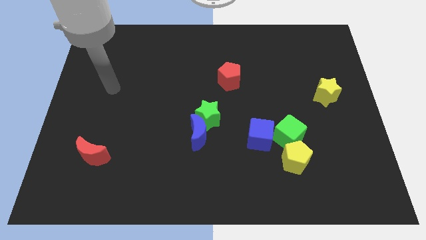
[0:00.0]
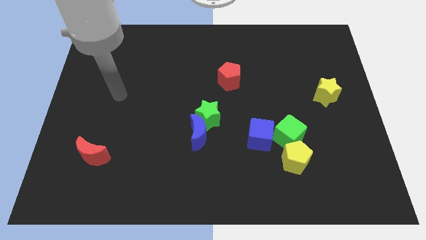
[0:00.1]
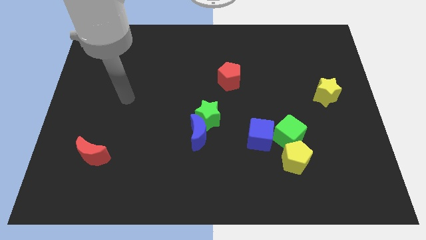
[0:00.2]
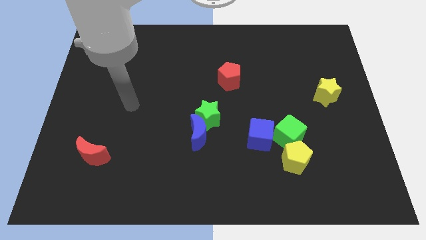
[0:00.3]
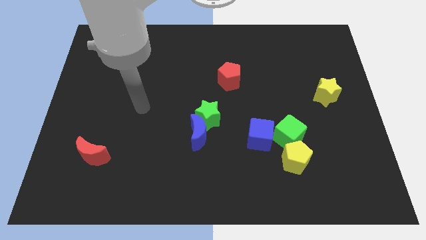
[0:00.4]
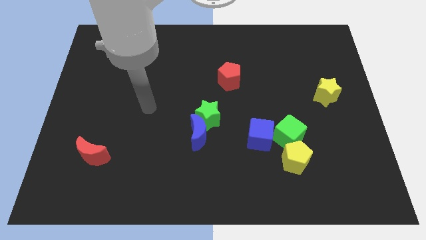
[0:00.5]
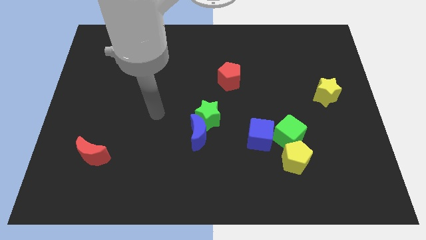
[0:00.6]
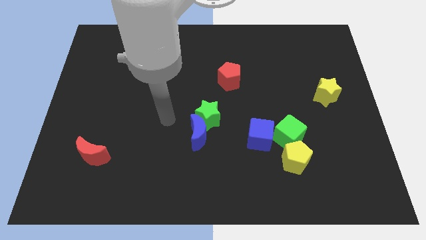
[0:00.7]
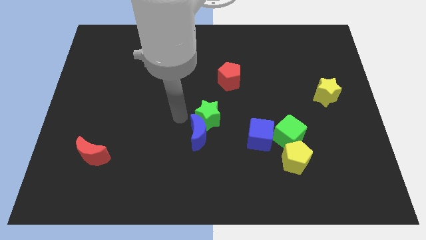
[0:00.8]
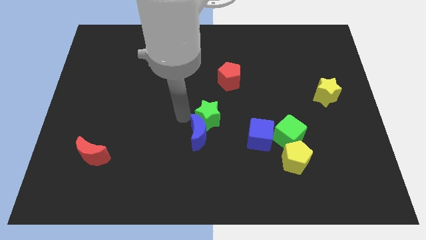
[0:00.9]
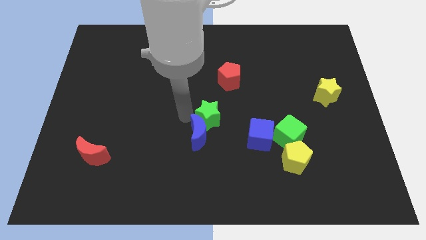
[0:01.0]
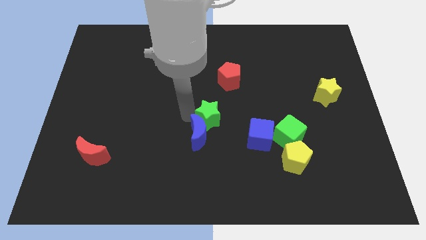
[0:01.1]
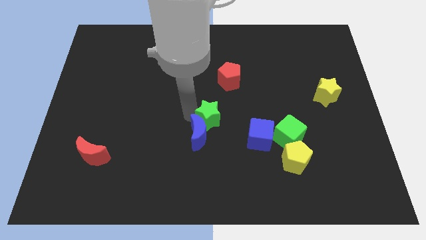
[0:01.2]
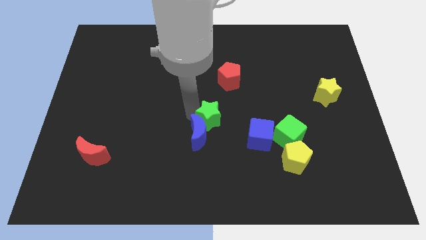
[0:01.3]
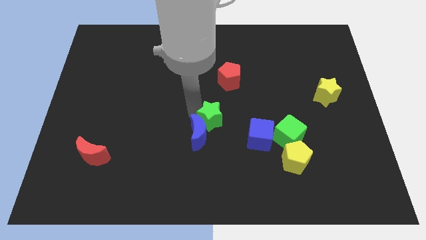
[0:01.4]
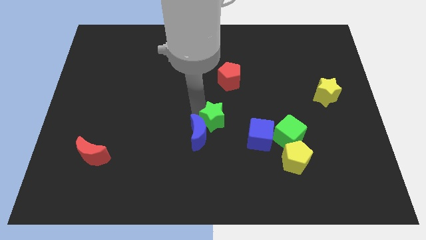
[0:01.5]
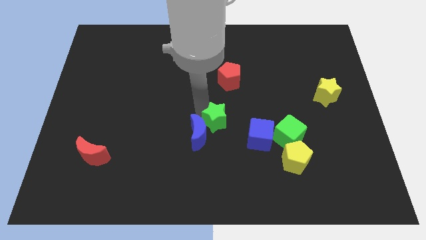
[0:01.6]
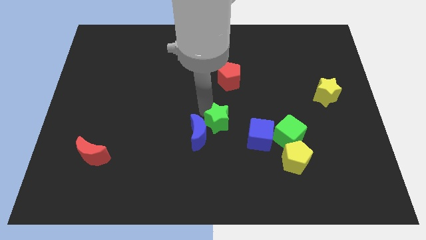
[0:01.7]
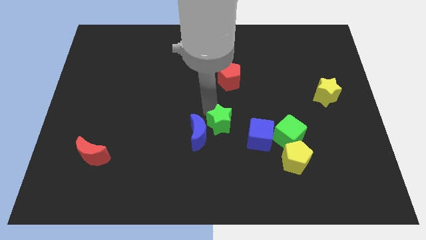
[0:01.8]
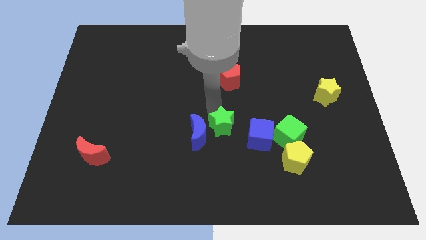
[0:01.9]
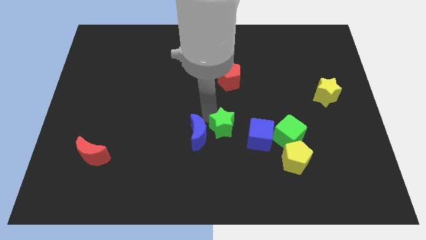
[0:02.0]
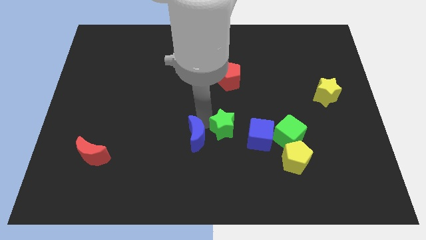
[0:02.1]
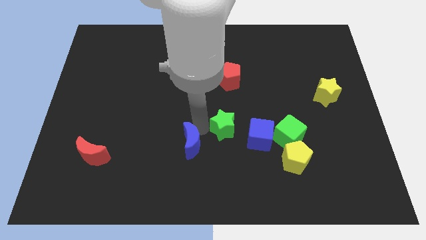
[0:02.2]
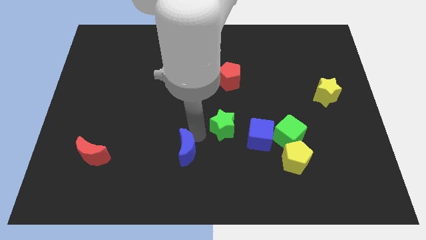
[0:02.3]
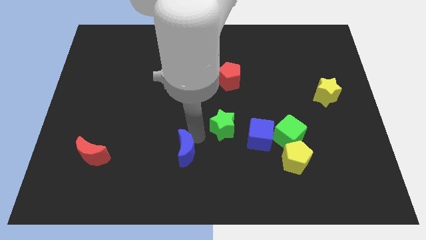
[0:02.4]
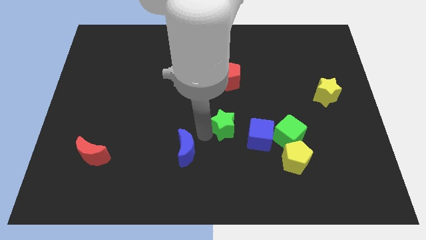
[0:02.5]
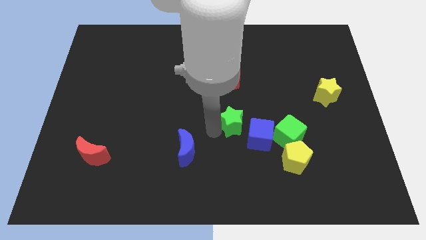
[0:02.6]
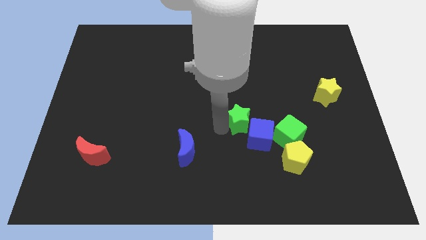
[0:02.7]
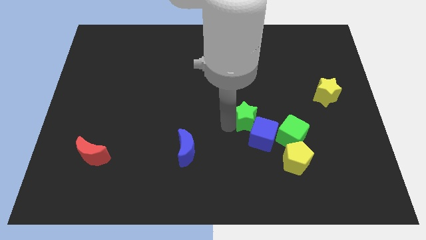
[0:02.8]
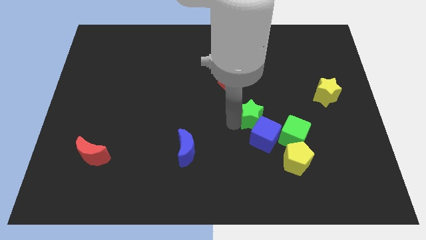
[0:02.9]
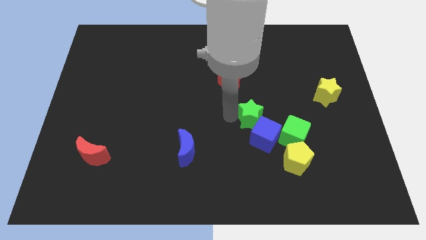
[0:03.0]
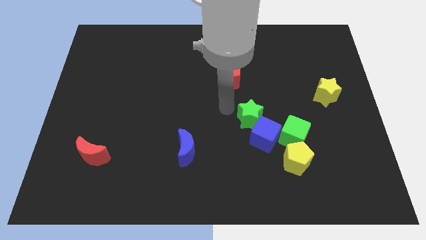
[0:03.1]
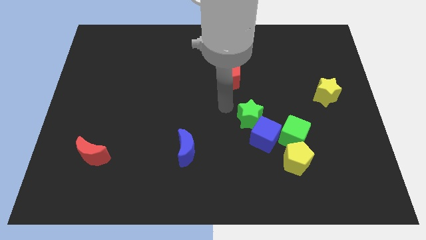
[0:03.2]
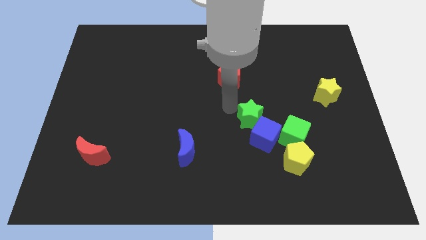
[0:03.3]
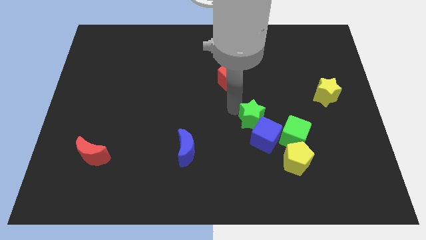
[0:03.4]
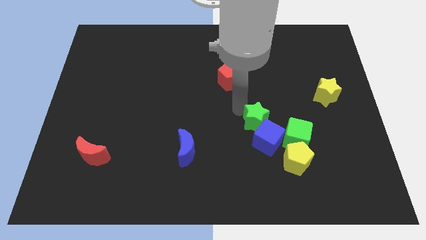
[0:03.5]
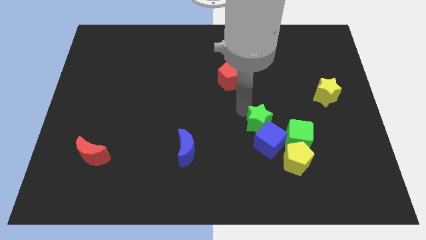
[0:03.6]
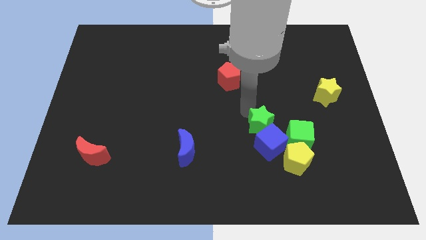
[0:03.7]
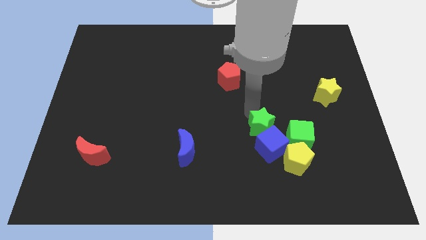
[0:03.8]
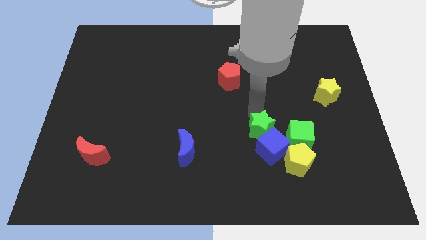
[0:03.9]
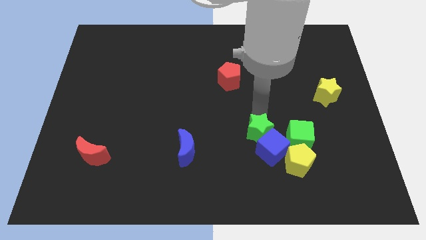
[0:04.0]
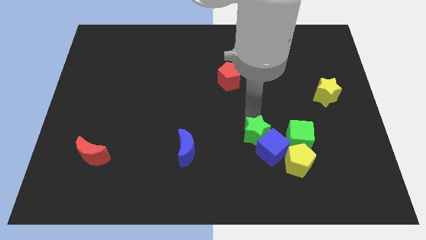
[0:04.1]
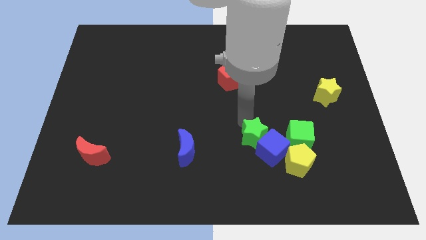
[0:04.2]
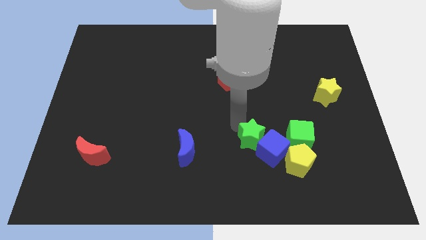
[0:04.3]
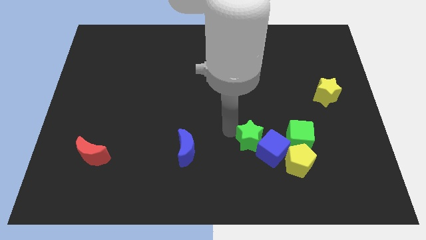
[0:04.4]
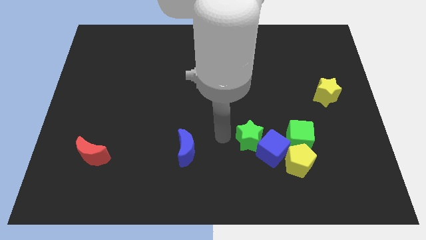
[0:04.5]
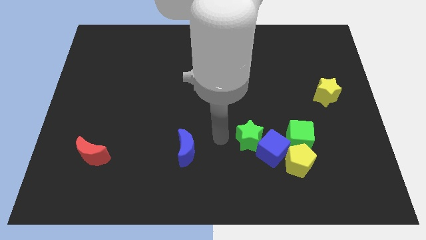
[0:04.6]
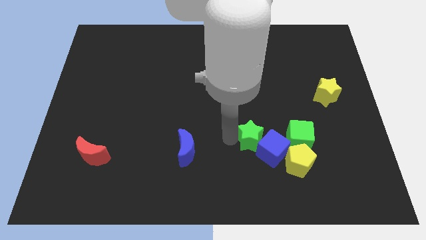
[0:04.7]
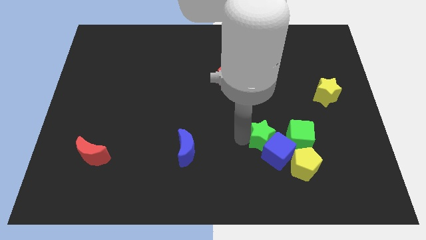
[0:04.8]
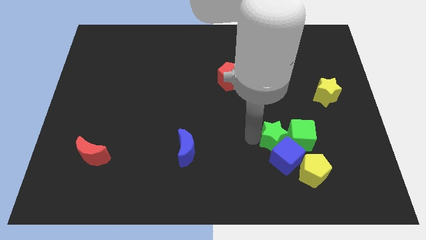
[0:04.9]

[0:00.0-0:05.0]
put the green star close to the green cube

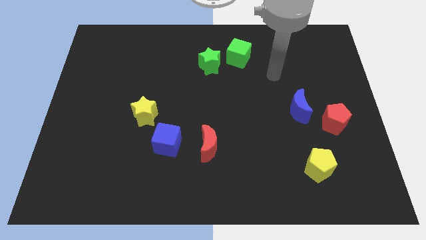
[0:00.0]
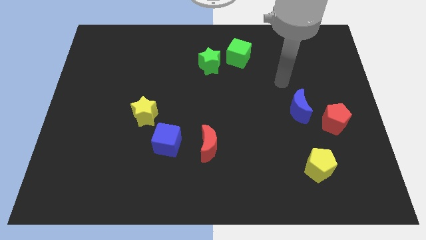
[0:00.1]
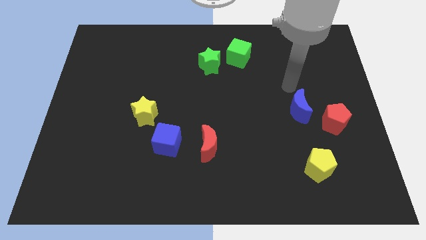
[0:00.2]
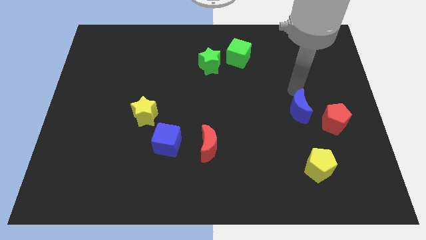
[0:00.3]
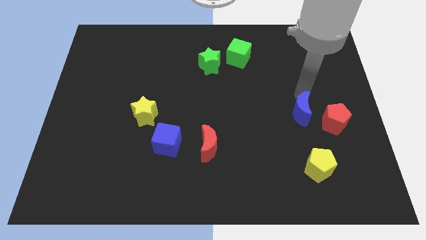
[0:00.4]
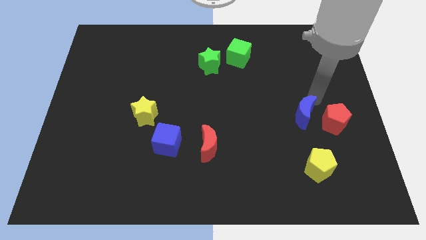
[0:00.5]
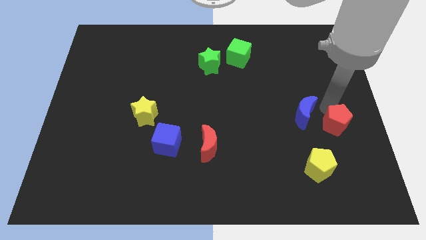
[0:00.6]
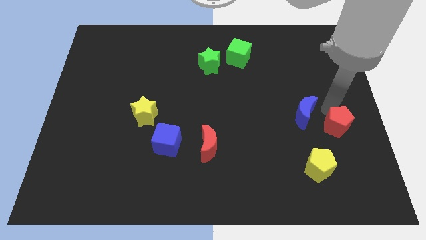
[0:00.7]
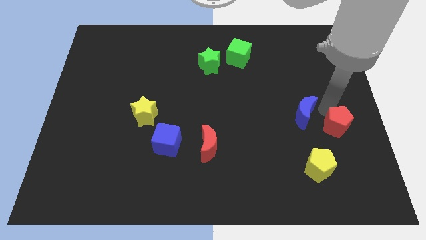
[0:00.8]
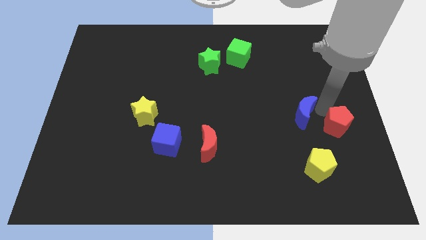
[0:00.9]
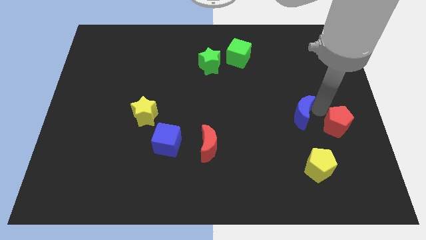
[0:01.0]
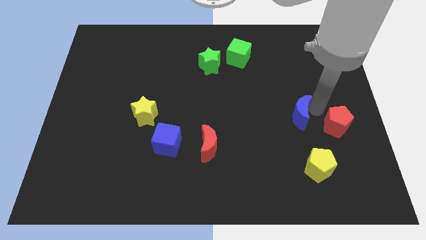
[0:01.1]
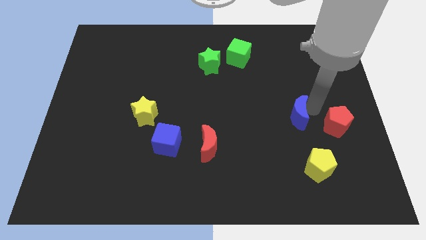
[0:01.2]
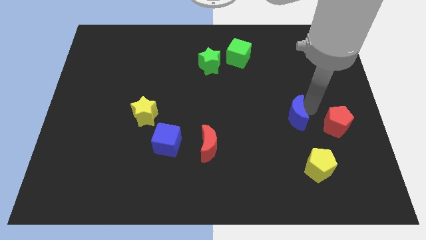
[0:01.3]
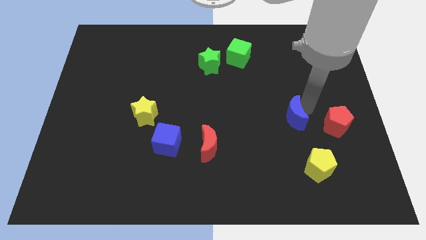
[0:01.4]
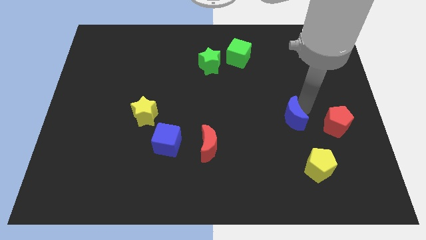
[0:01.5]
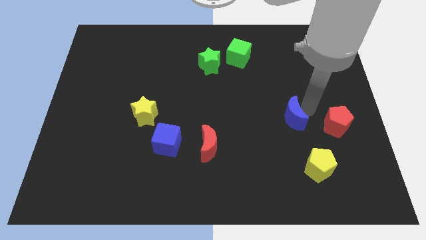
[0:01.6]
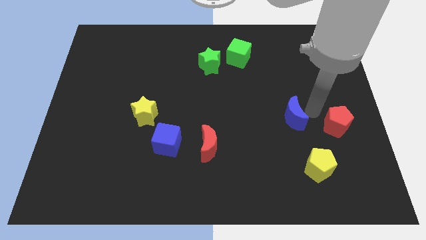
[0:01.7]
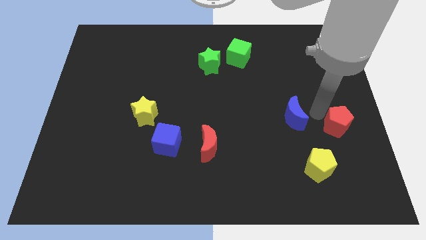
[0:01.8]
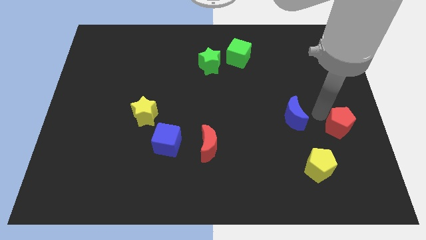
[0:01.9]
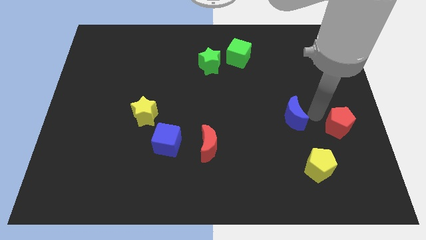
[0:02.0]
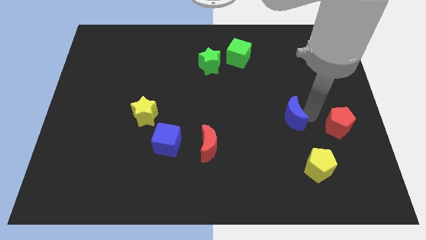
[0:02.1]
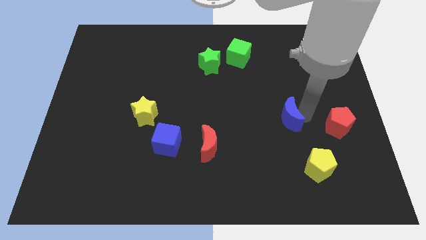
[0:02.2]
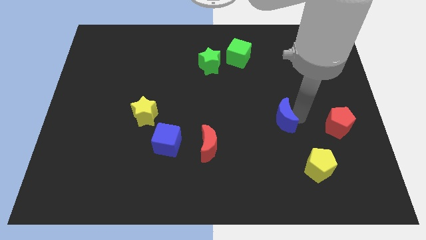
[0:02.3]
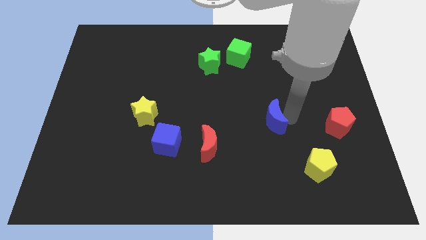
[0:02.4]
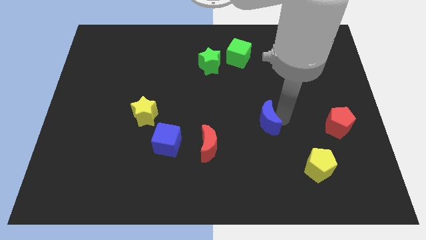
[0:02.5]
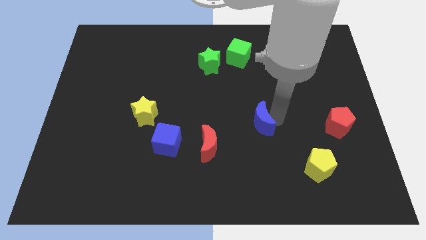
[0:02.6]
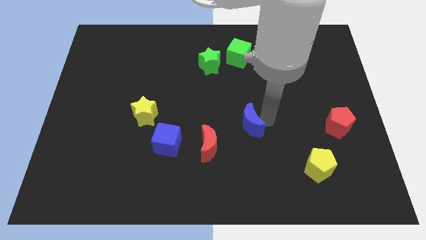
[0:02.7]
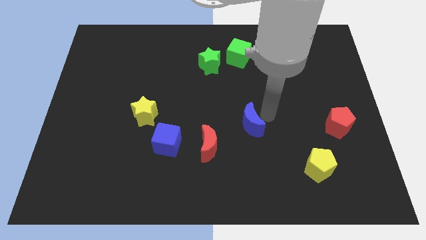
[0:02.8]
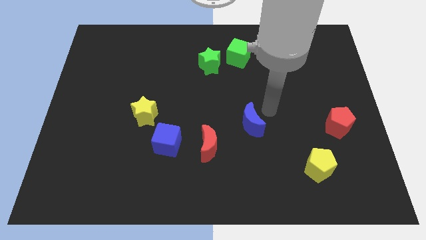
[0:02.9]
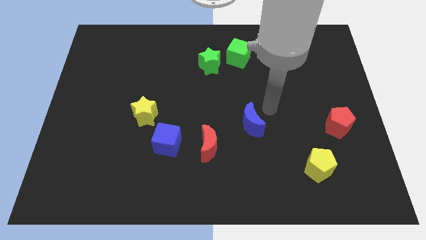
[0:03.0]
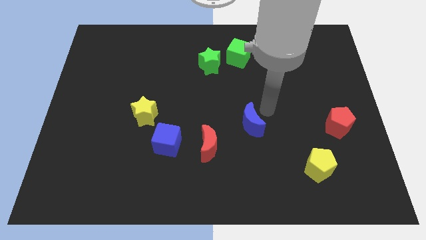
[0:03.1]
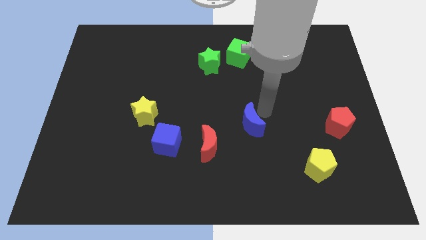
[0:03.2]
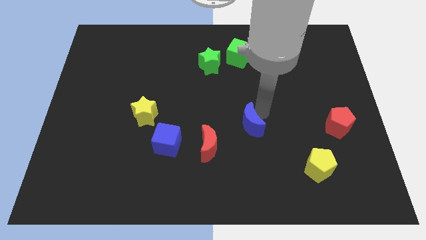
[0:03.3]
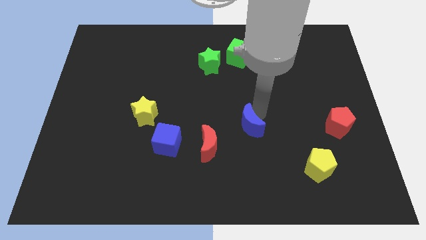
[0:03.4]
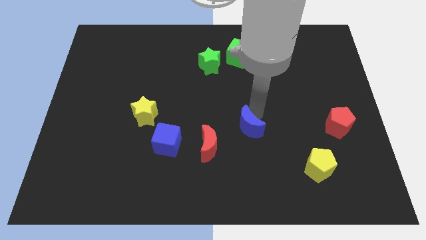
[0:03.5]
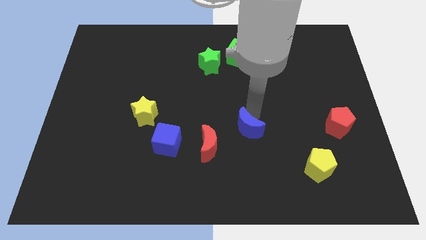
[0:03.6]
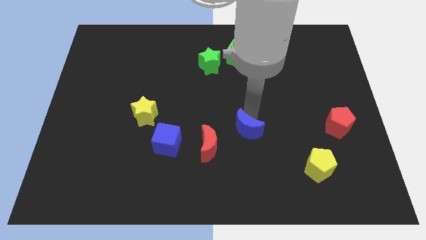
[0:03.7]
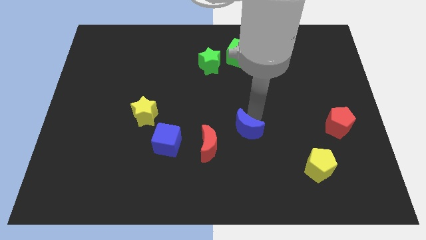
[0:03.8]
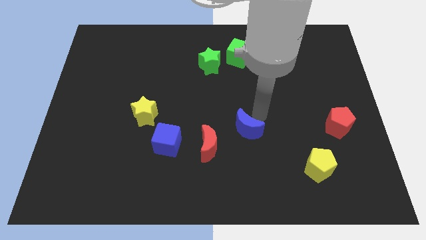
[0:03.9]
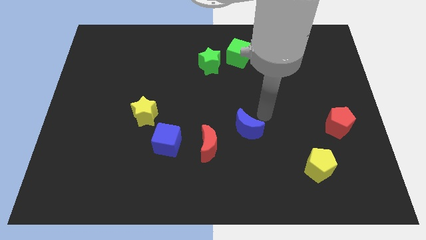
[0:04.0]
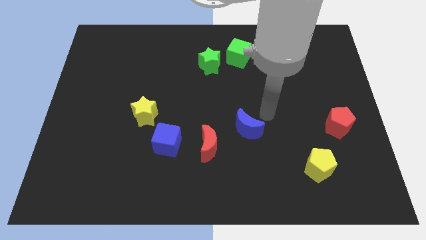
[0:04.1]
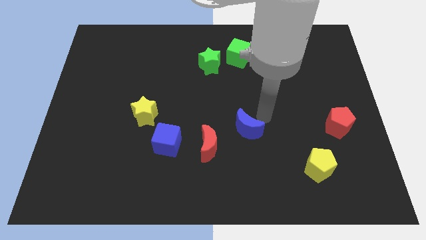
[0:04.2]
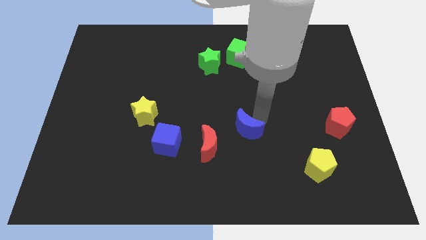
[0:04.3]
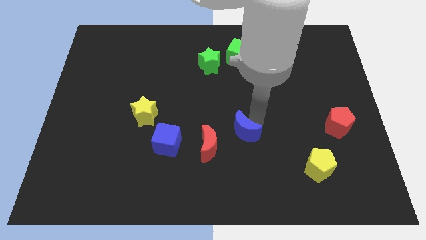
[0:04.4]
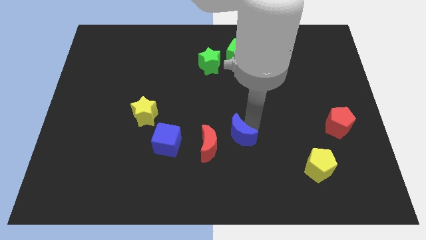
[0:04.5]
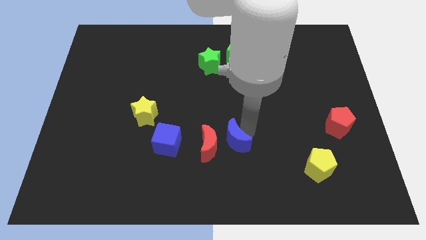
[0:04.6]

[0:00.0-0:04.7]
push the blue moon next to the red moon
